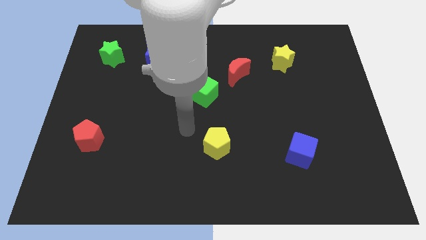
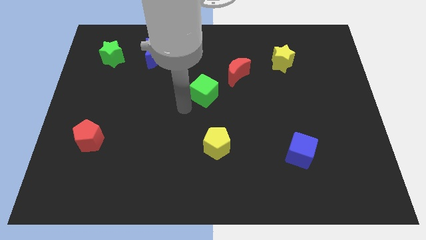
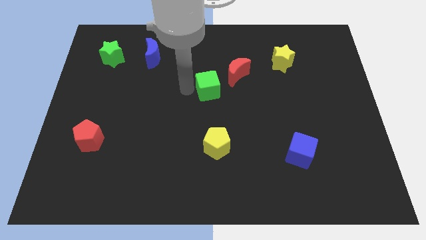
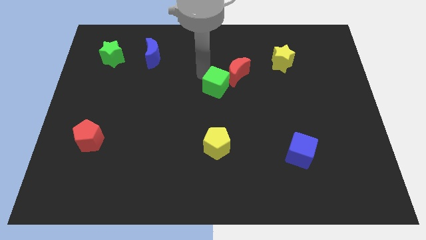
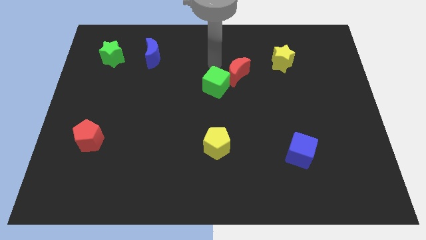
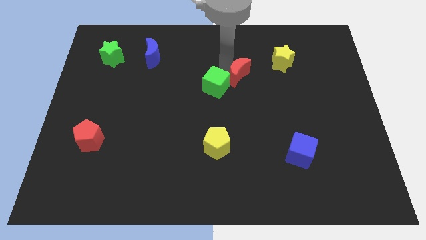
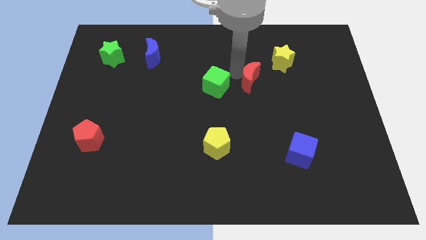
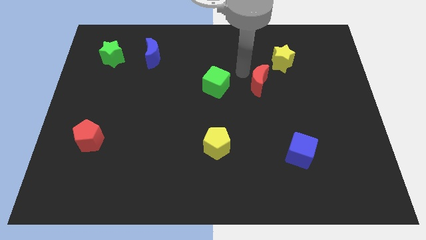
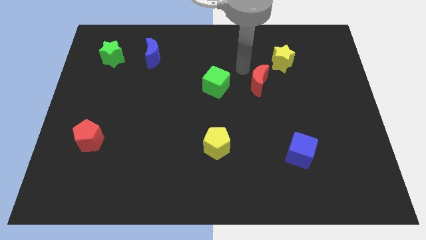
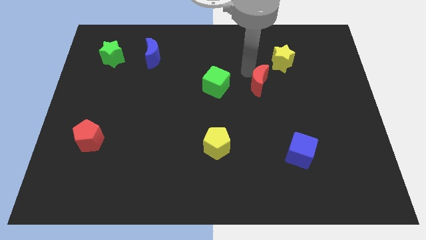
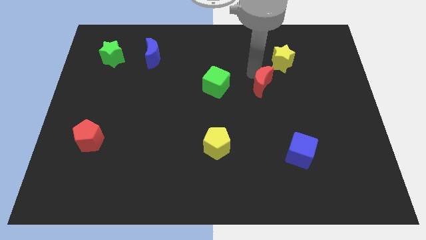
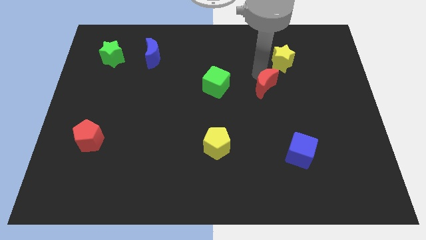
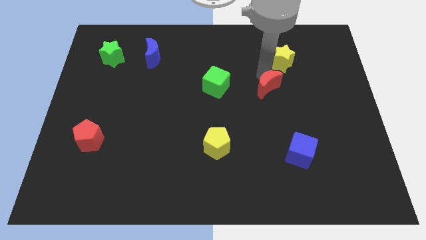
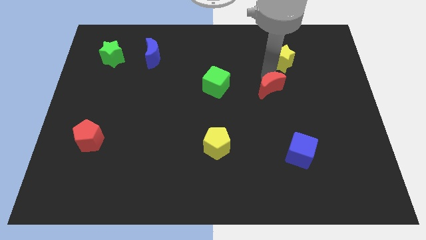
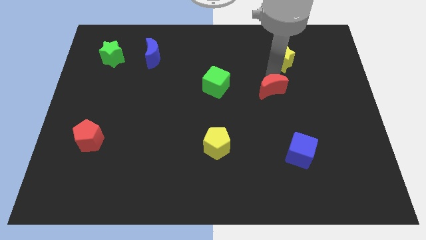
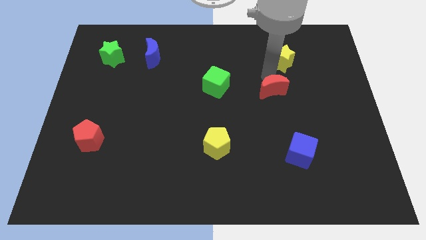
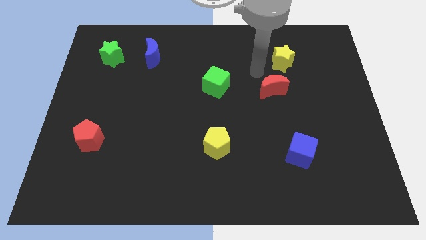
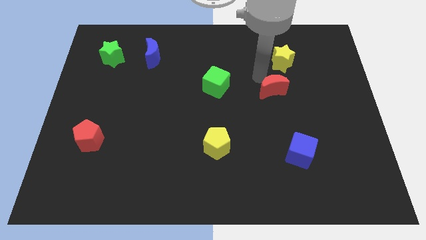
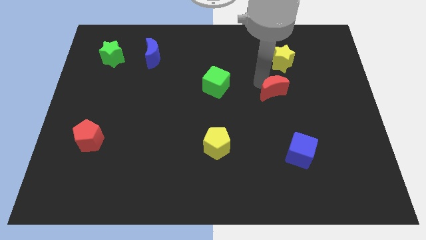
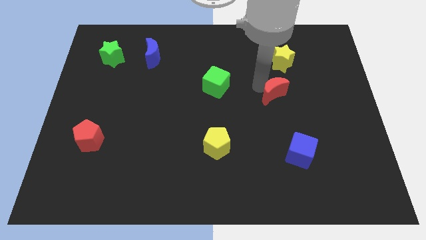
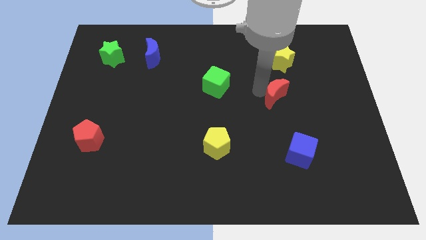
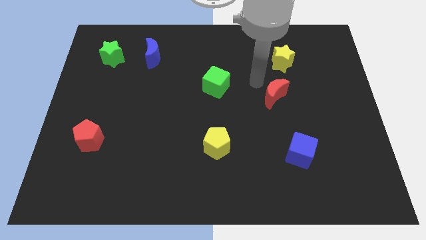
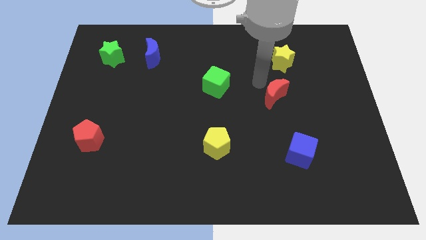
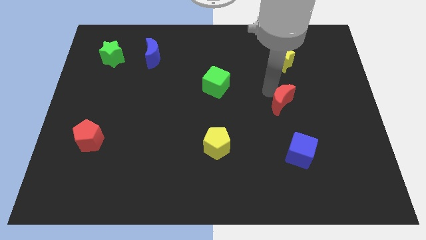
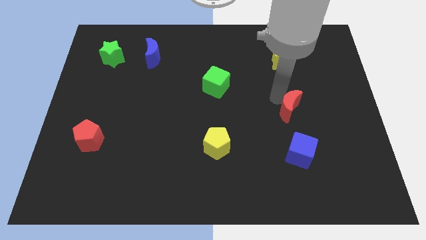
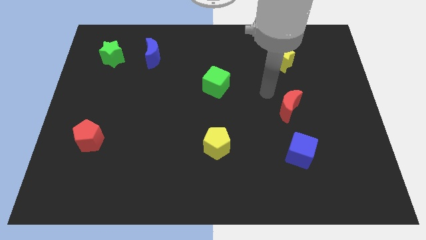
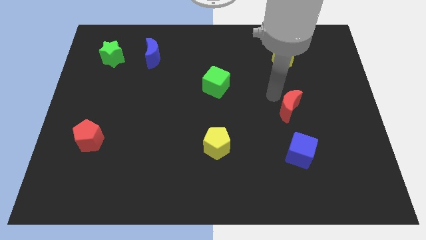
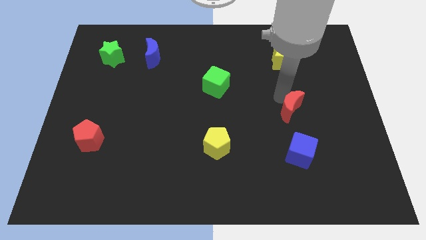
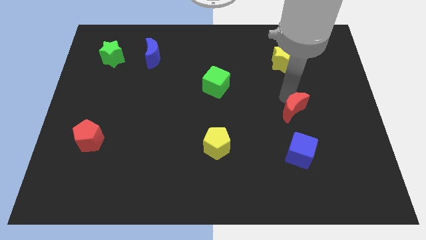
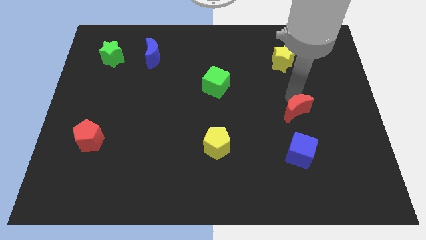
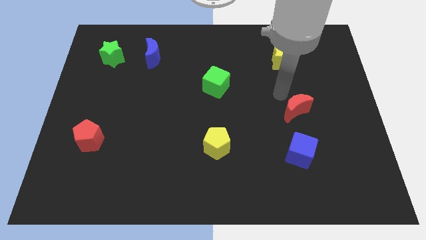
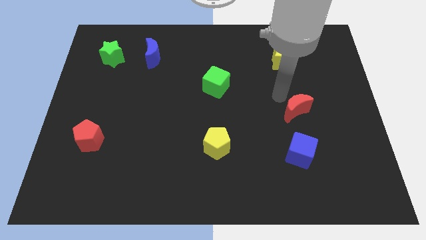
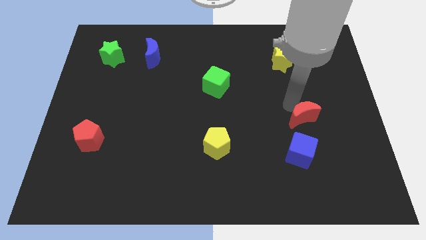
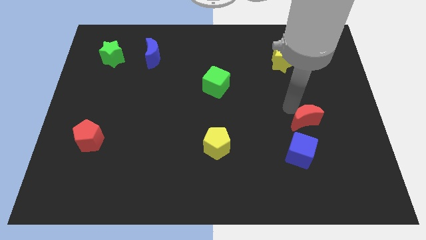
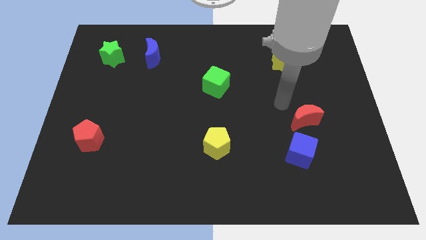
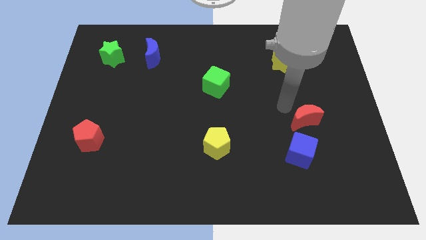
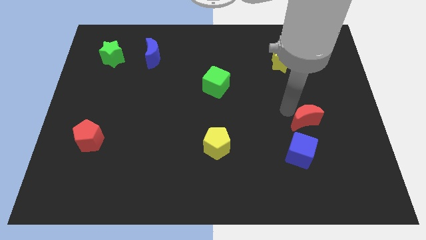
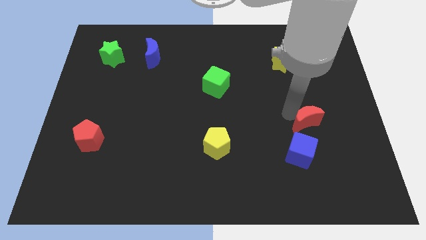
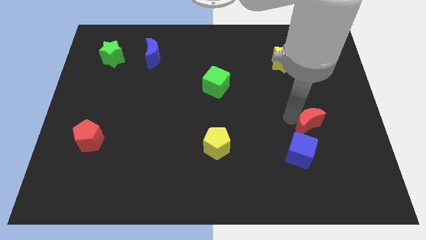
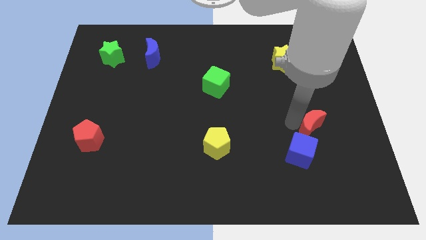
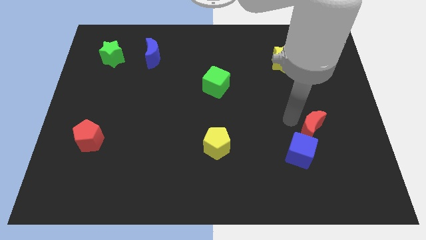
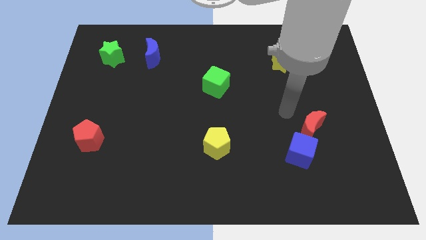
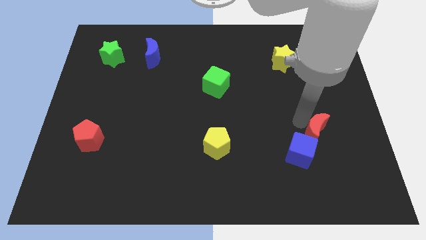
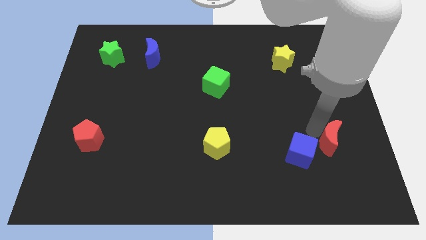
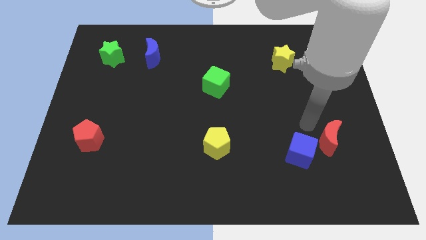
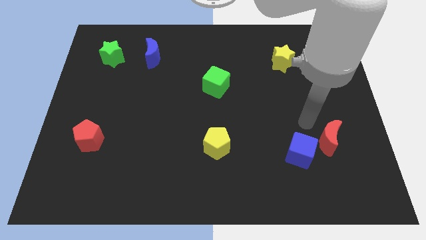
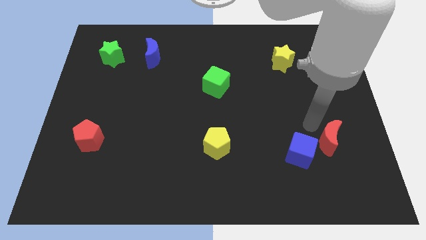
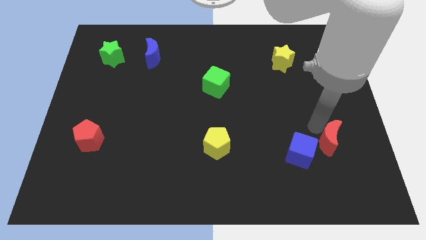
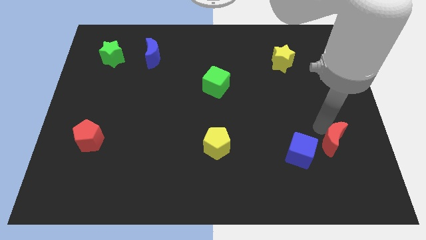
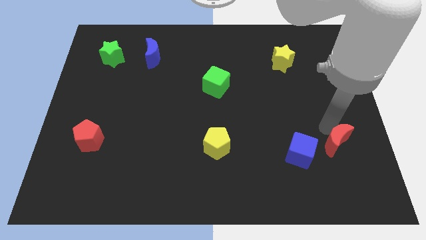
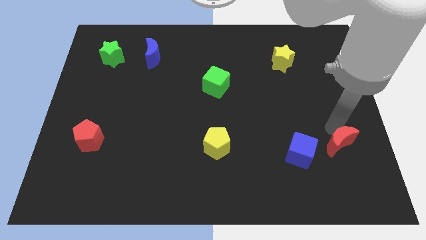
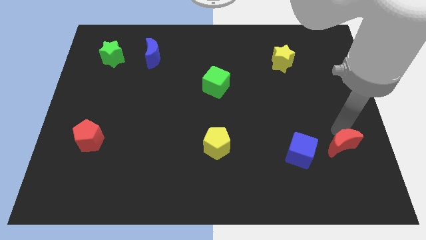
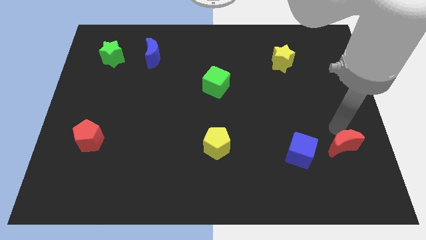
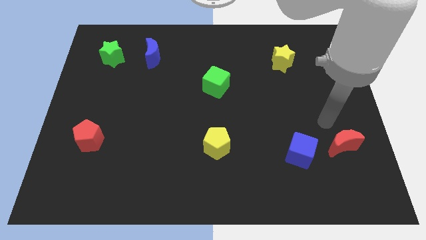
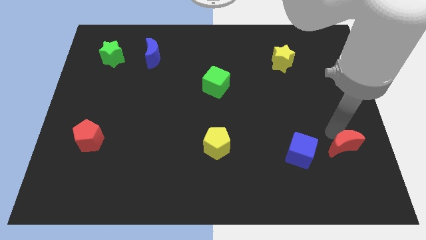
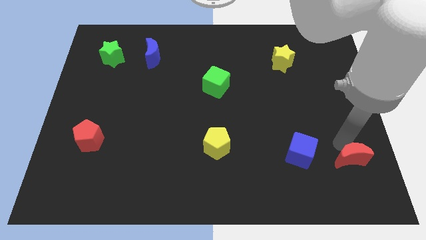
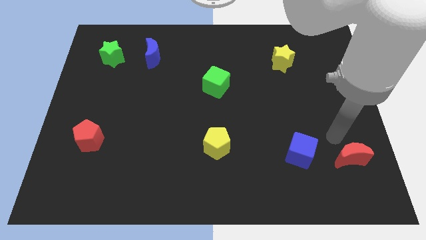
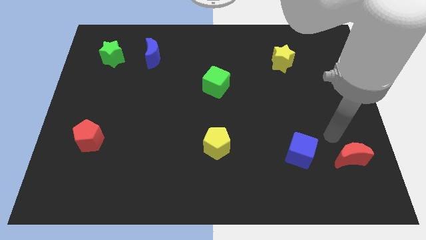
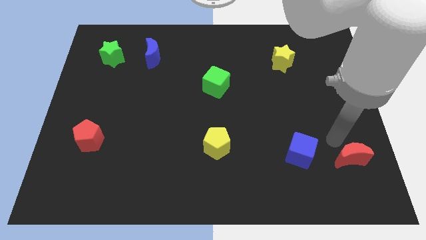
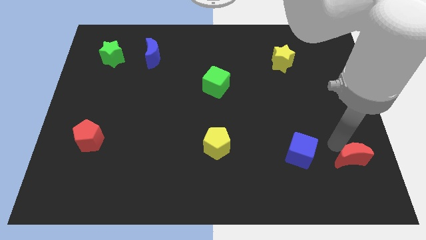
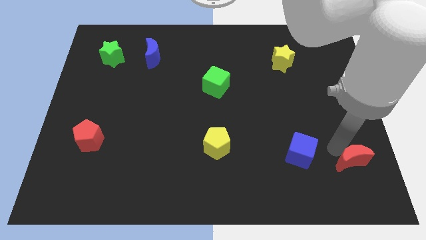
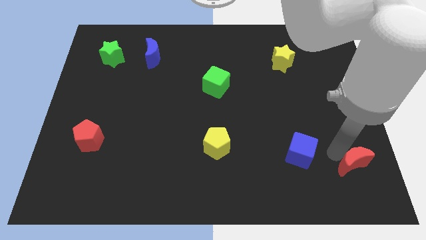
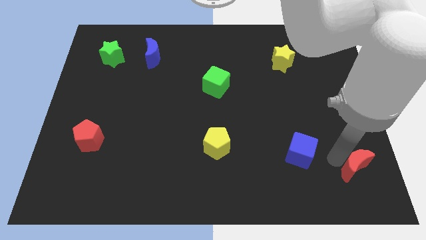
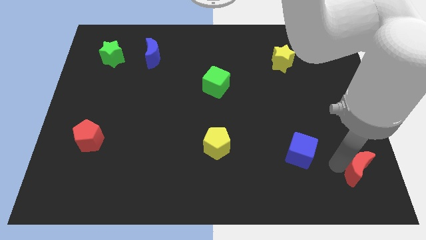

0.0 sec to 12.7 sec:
slide the red moon to the bottom right corner
